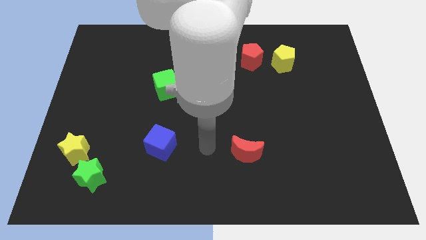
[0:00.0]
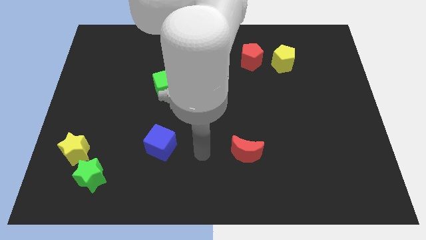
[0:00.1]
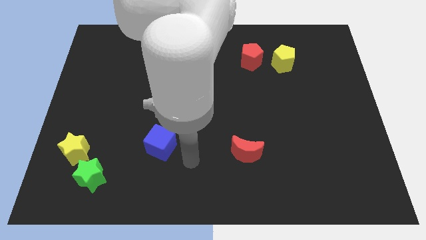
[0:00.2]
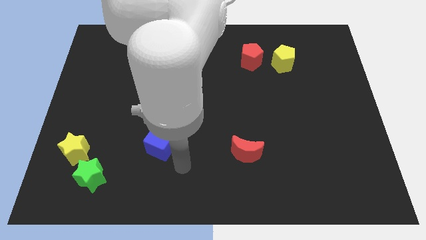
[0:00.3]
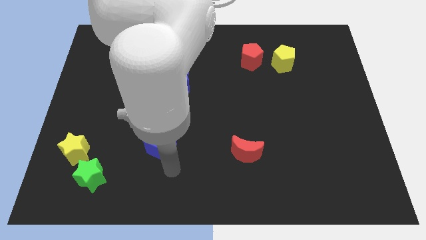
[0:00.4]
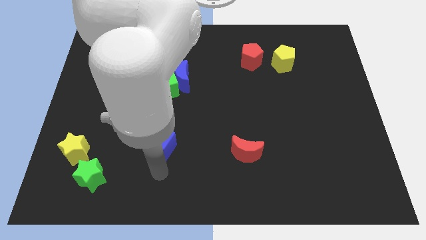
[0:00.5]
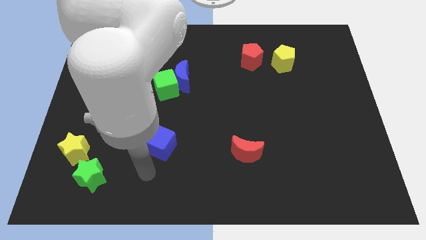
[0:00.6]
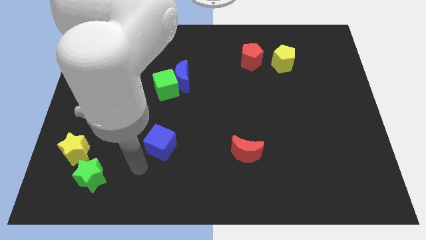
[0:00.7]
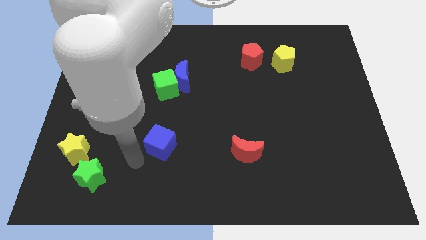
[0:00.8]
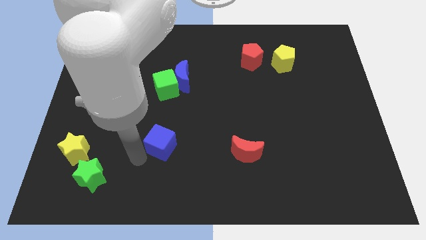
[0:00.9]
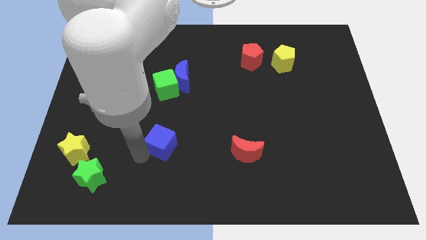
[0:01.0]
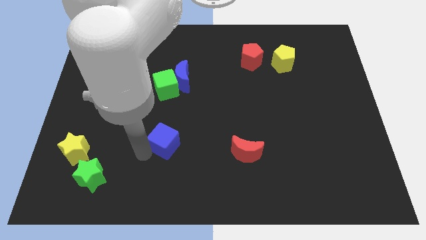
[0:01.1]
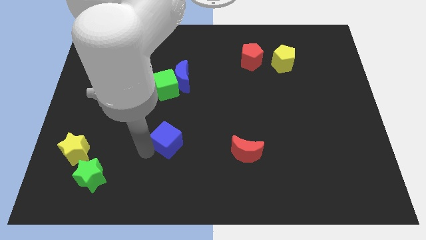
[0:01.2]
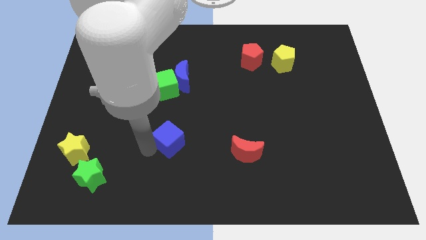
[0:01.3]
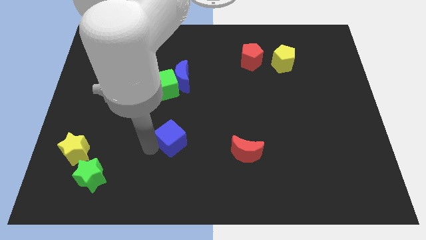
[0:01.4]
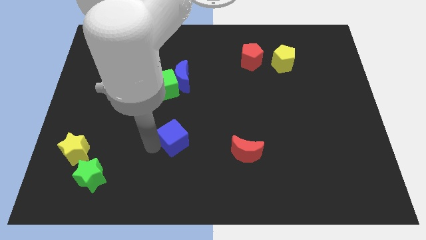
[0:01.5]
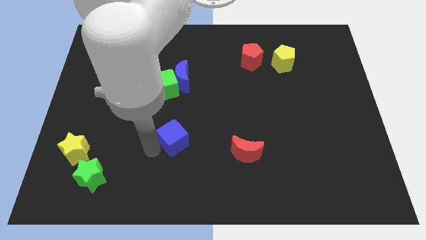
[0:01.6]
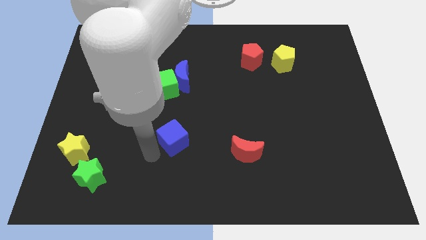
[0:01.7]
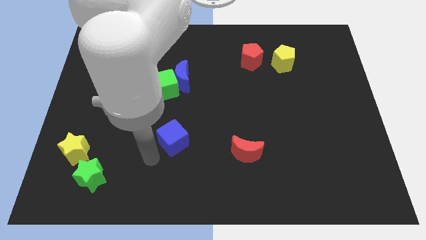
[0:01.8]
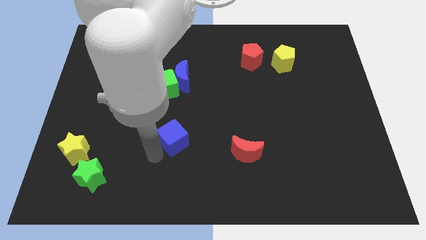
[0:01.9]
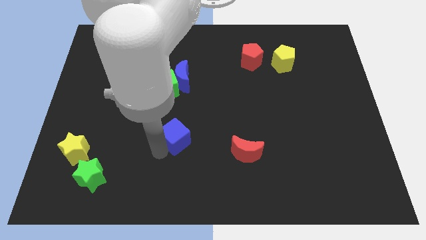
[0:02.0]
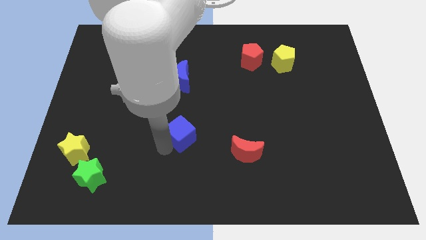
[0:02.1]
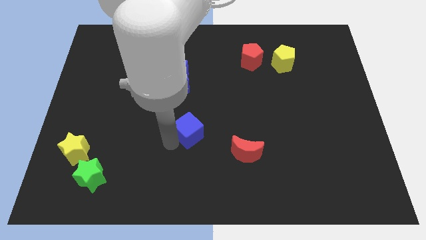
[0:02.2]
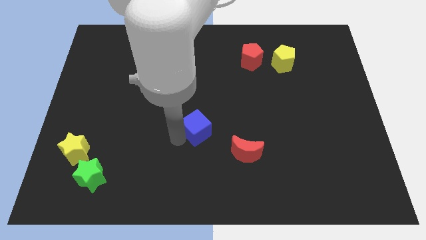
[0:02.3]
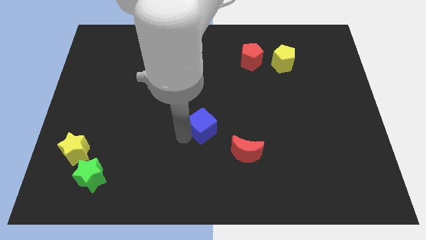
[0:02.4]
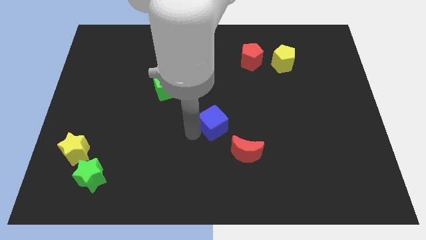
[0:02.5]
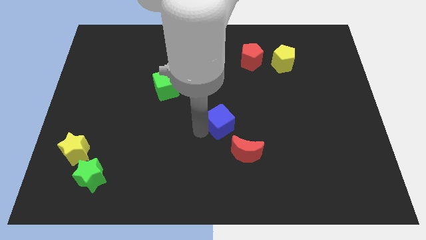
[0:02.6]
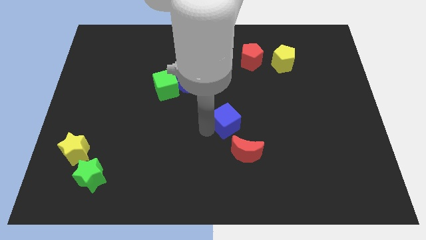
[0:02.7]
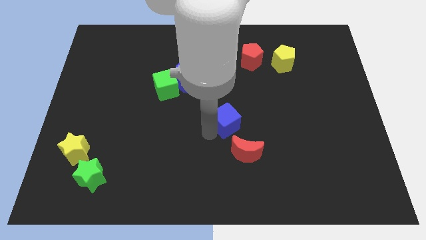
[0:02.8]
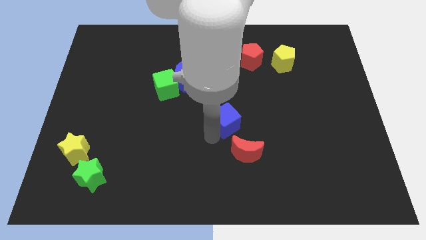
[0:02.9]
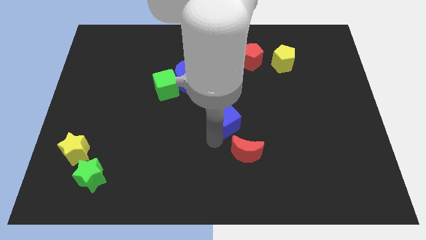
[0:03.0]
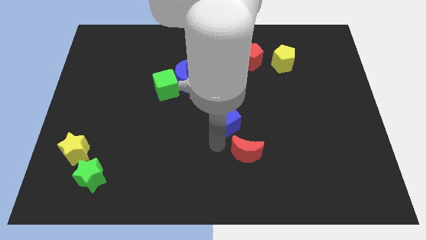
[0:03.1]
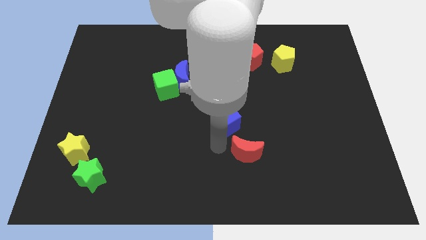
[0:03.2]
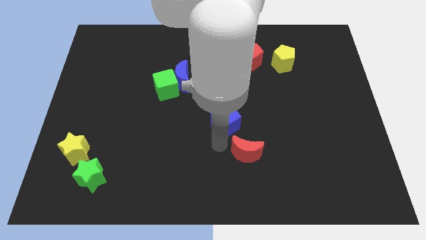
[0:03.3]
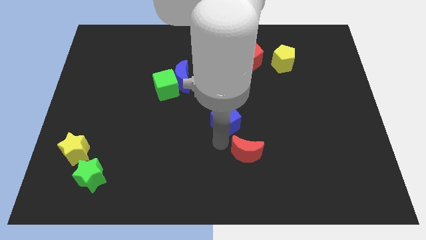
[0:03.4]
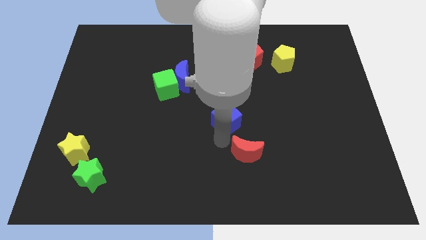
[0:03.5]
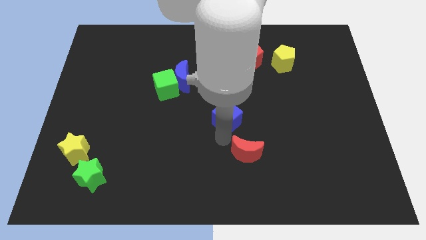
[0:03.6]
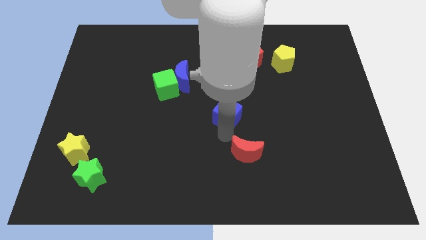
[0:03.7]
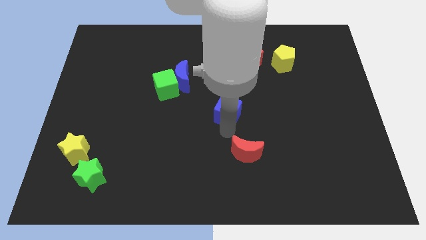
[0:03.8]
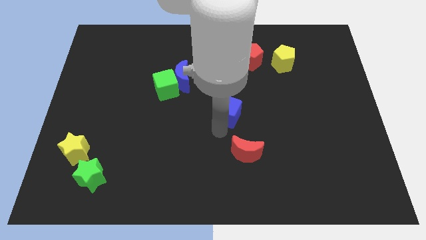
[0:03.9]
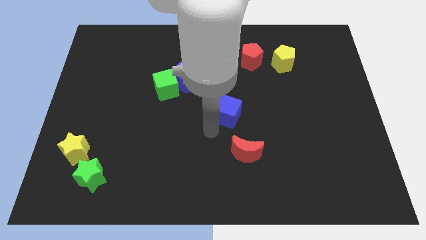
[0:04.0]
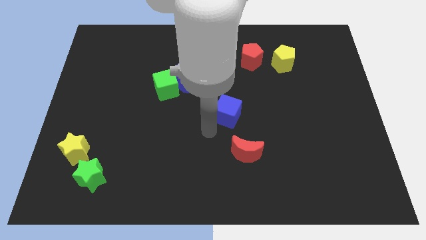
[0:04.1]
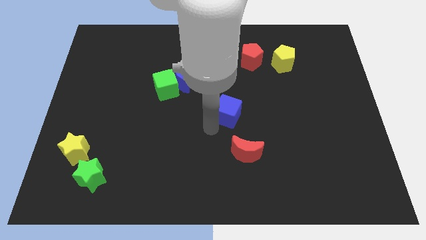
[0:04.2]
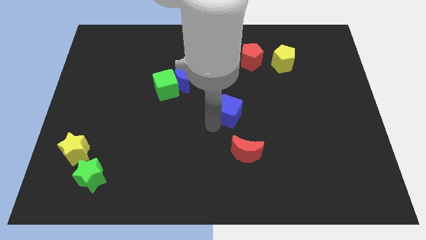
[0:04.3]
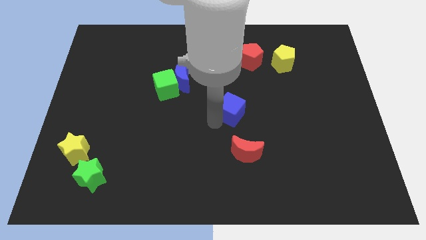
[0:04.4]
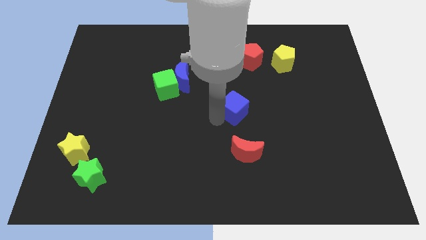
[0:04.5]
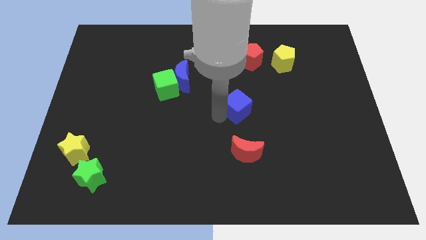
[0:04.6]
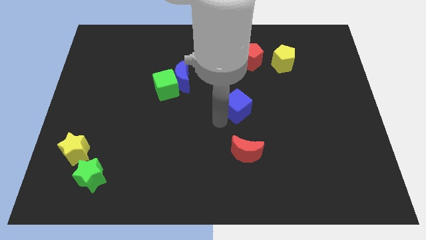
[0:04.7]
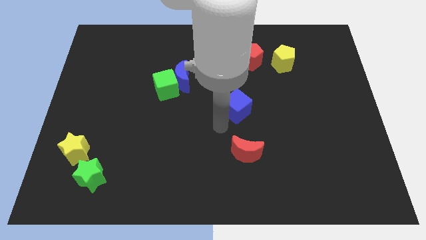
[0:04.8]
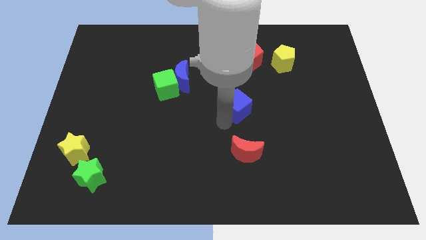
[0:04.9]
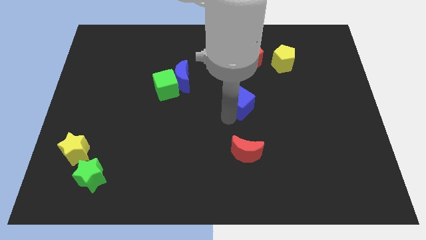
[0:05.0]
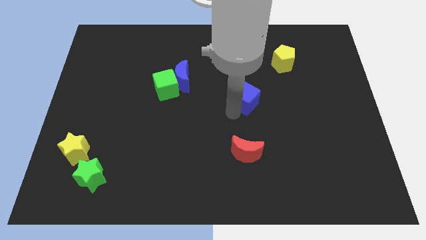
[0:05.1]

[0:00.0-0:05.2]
move the blue cube to the bottom of the red pentagon

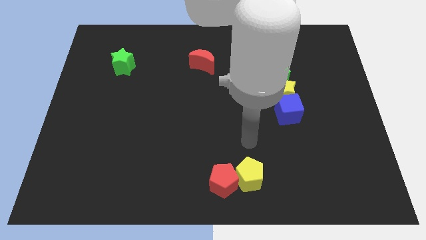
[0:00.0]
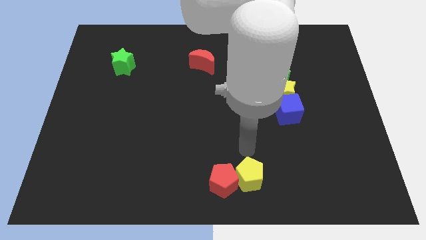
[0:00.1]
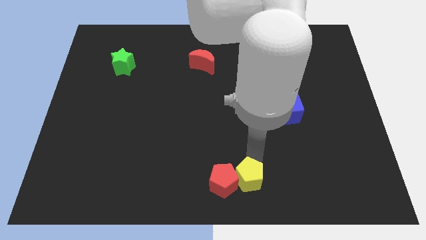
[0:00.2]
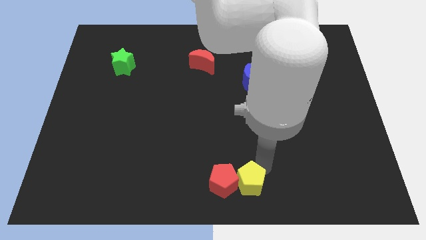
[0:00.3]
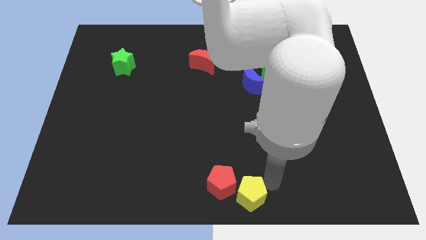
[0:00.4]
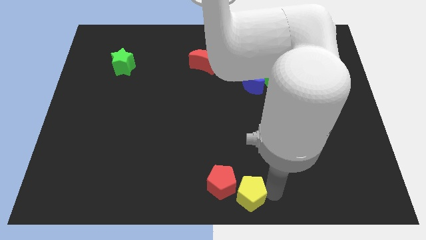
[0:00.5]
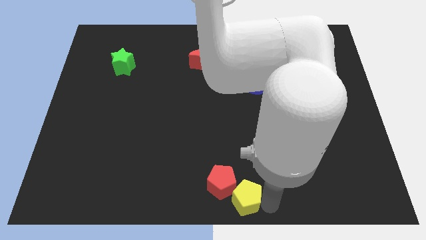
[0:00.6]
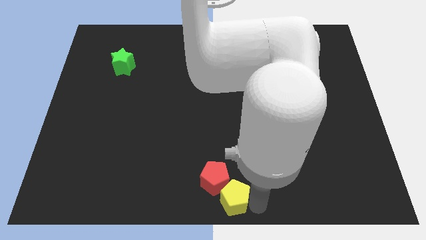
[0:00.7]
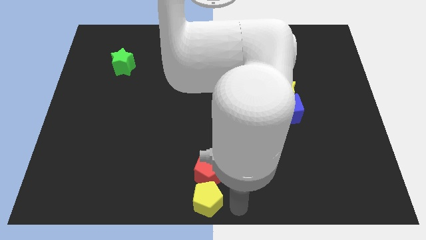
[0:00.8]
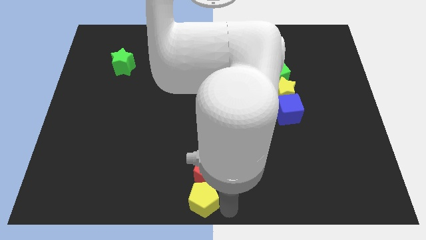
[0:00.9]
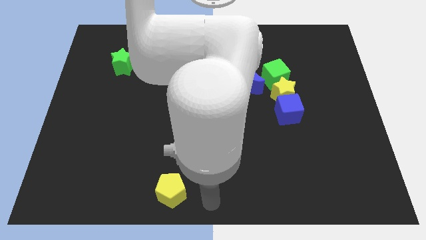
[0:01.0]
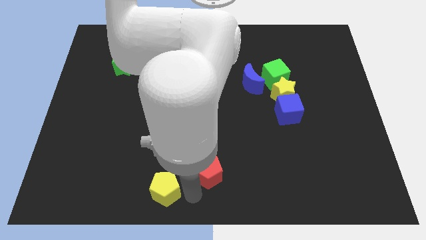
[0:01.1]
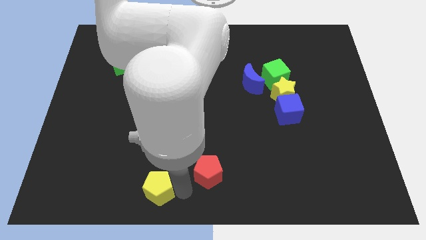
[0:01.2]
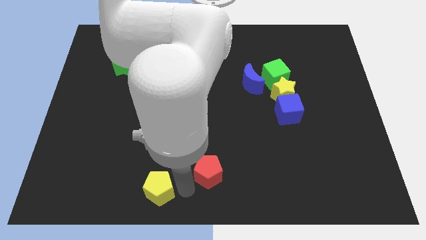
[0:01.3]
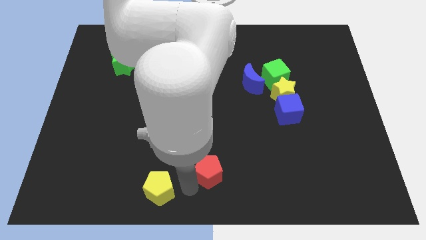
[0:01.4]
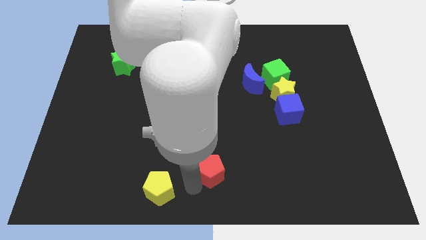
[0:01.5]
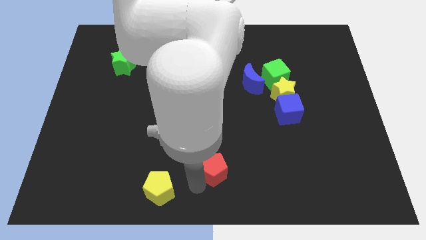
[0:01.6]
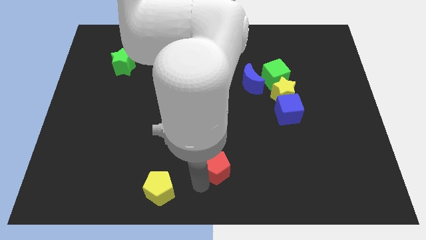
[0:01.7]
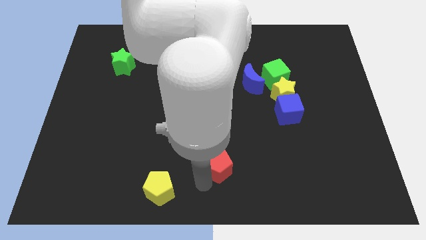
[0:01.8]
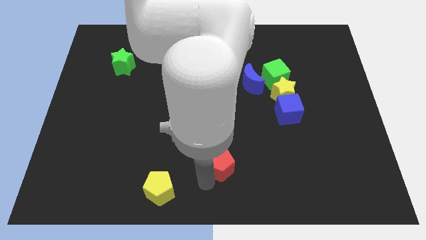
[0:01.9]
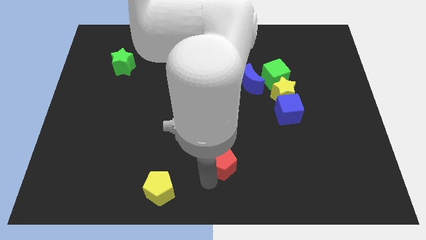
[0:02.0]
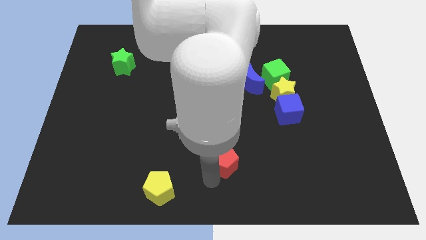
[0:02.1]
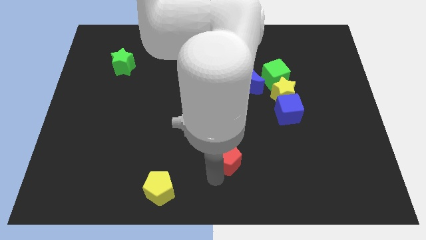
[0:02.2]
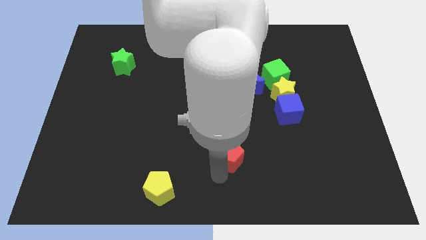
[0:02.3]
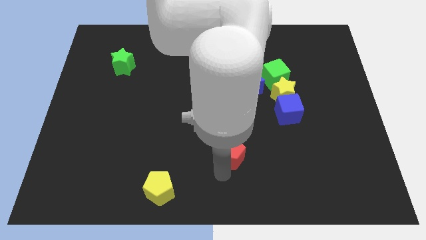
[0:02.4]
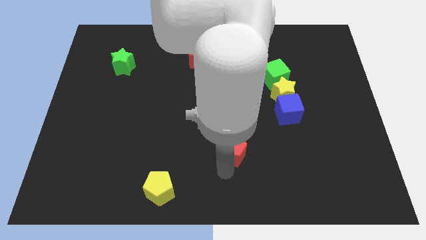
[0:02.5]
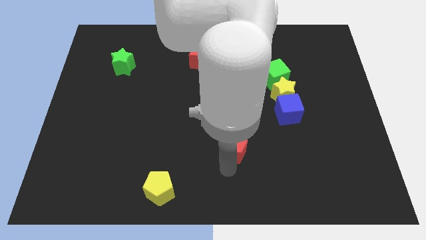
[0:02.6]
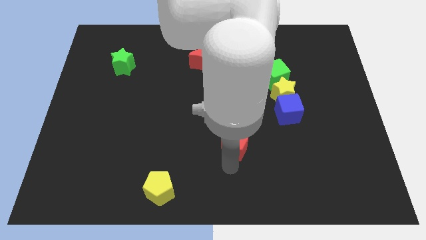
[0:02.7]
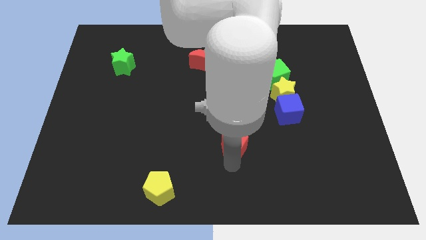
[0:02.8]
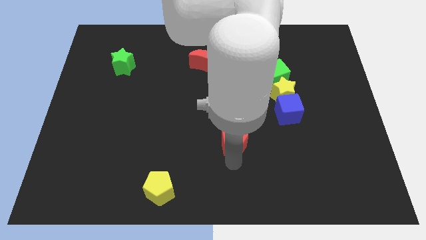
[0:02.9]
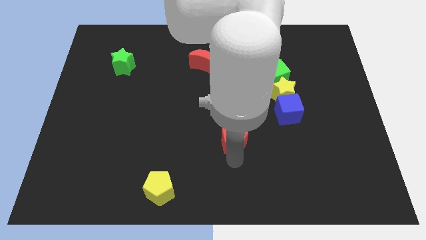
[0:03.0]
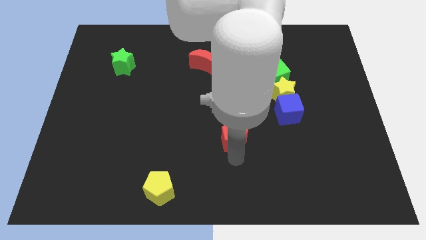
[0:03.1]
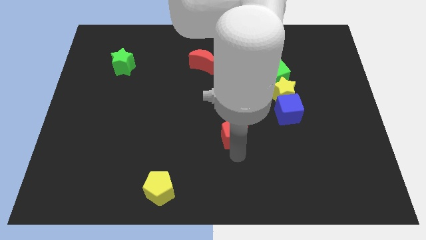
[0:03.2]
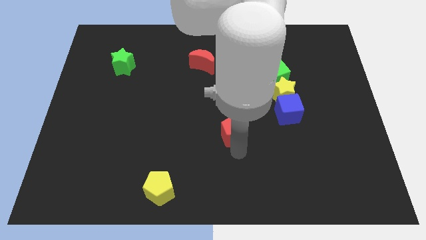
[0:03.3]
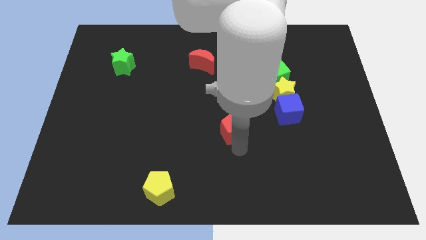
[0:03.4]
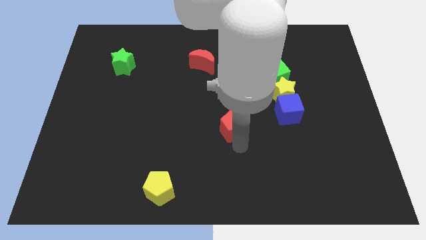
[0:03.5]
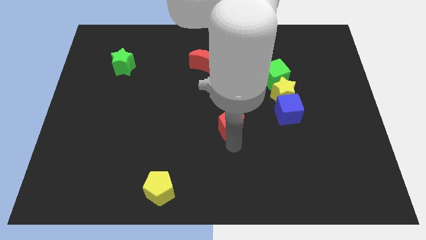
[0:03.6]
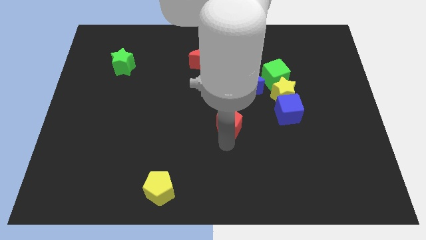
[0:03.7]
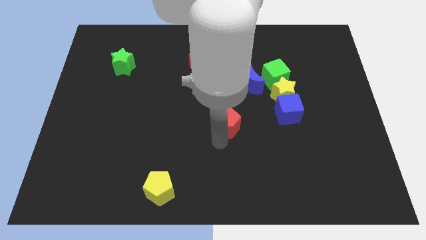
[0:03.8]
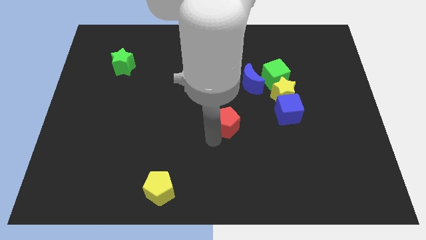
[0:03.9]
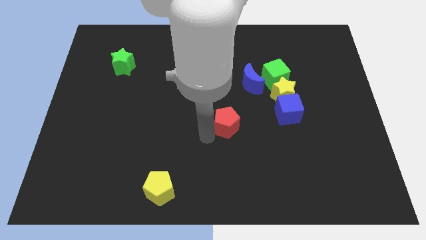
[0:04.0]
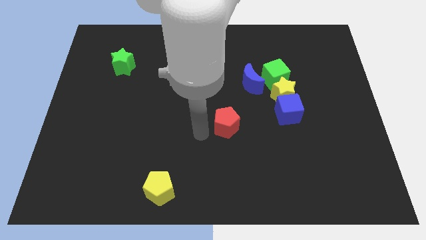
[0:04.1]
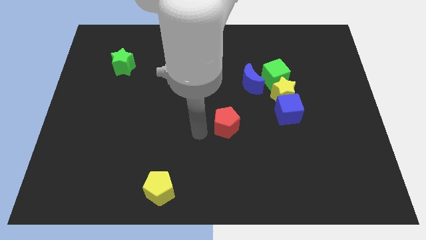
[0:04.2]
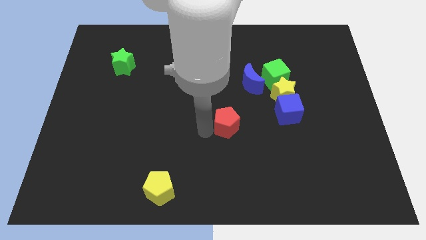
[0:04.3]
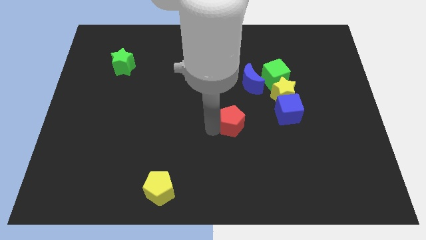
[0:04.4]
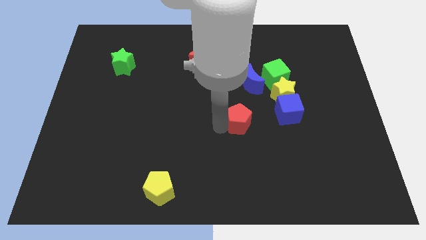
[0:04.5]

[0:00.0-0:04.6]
put the red pentagon to the bottom side of the blue moon
